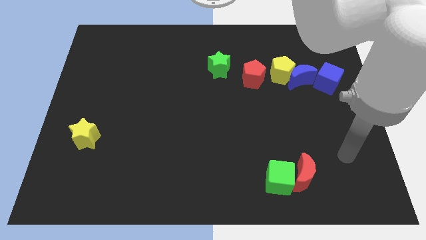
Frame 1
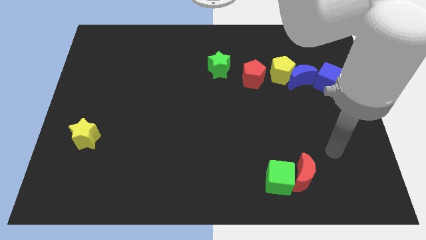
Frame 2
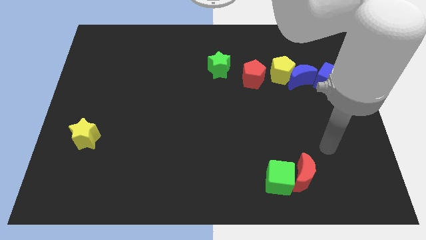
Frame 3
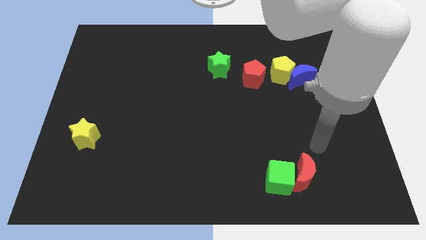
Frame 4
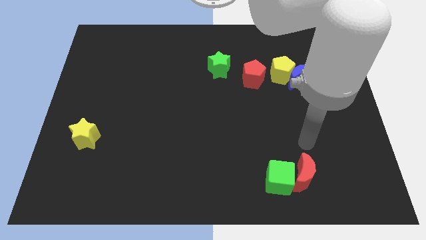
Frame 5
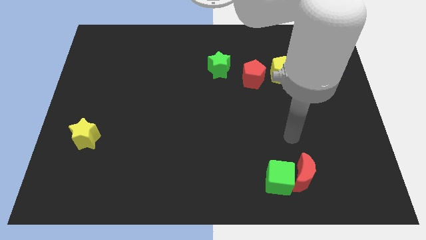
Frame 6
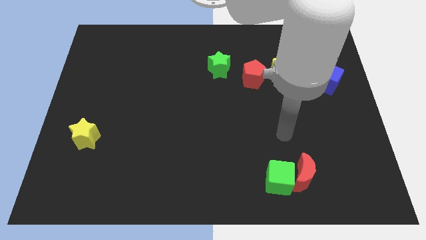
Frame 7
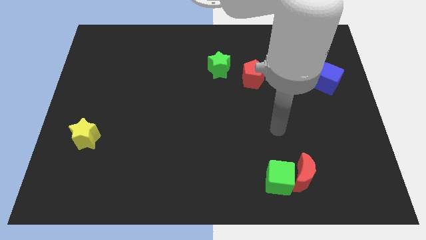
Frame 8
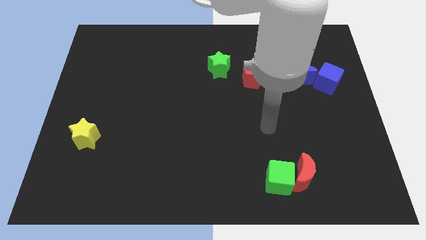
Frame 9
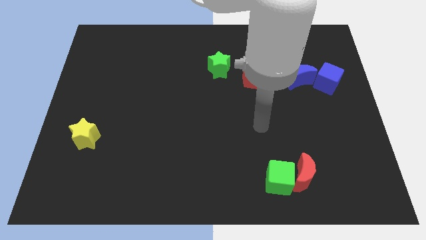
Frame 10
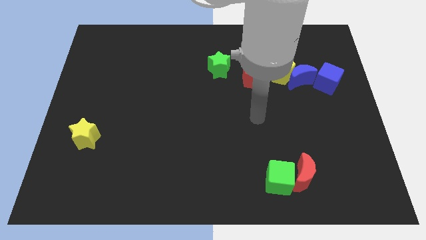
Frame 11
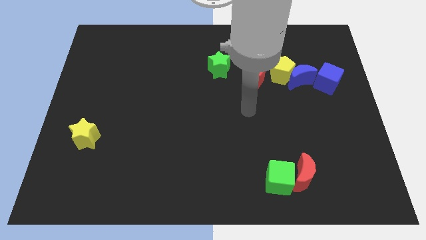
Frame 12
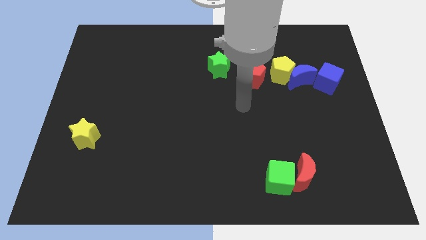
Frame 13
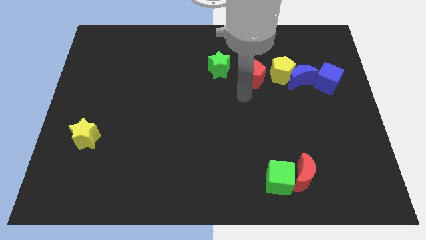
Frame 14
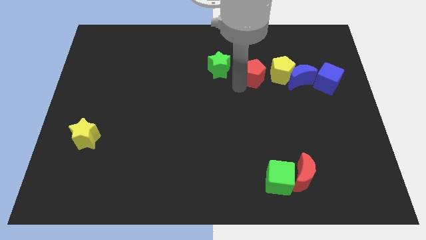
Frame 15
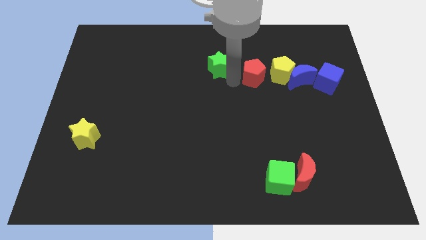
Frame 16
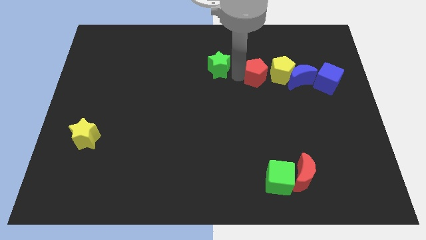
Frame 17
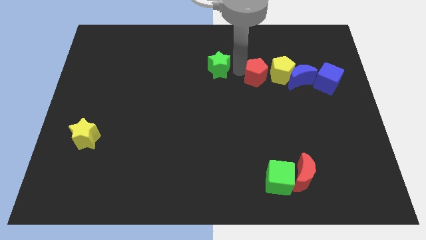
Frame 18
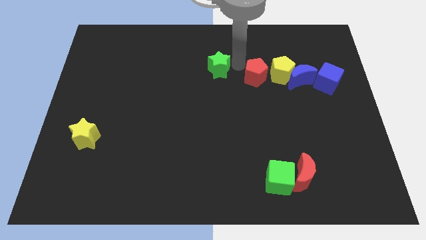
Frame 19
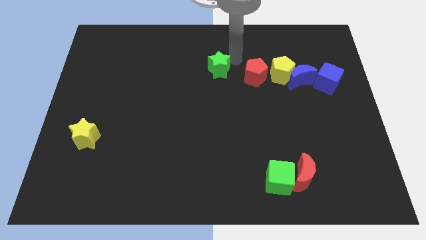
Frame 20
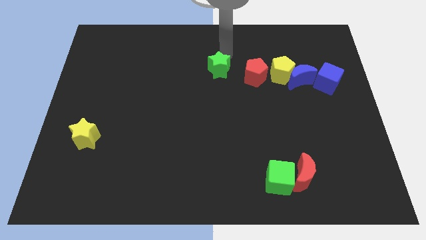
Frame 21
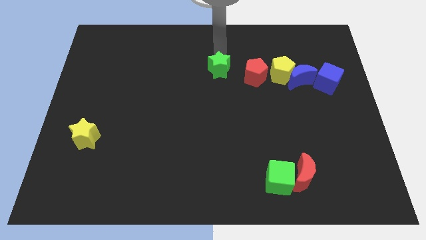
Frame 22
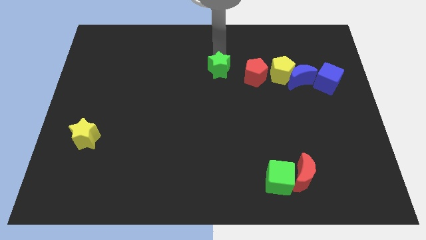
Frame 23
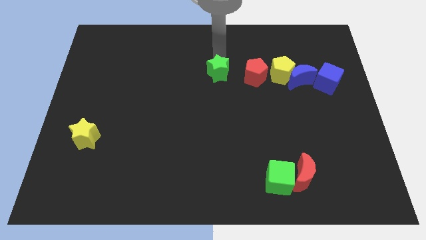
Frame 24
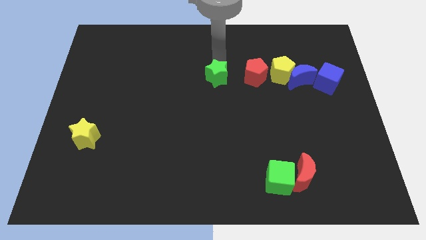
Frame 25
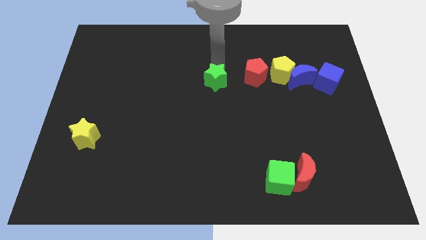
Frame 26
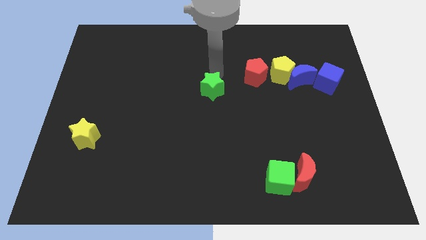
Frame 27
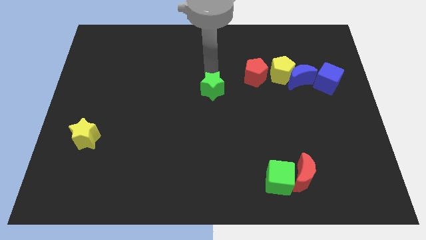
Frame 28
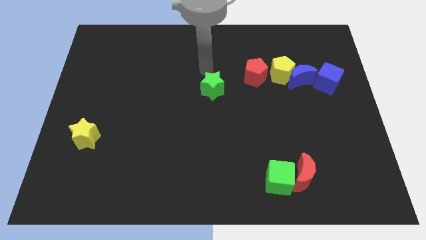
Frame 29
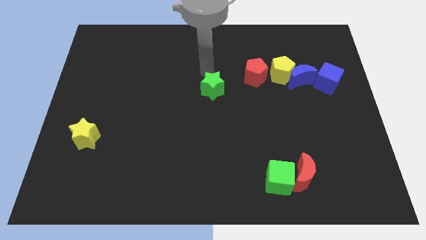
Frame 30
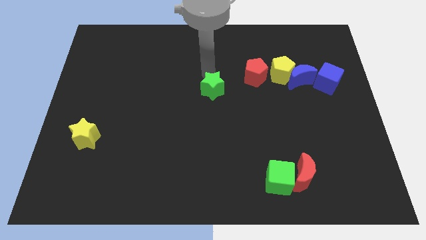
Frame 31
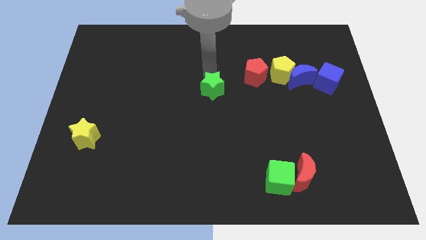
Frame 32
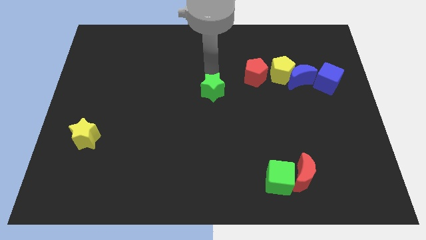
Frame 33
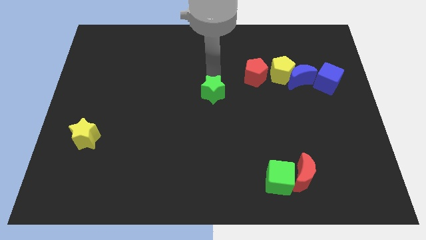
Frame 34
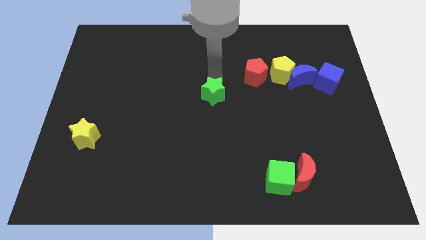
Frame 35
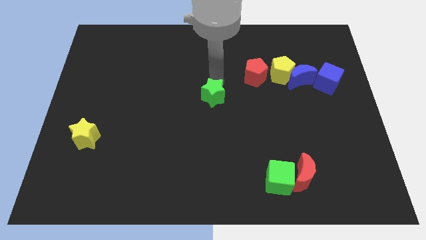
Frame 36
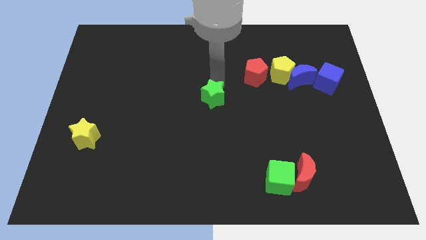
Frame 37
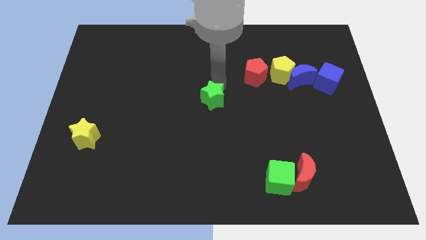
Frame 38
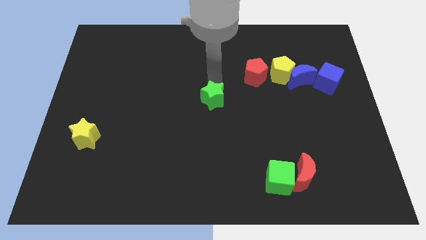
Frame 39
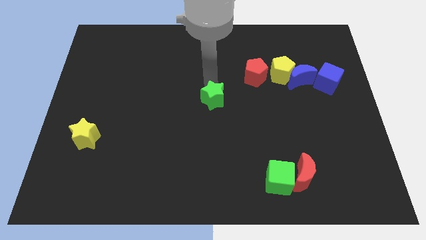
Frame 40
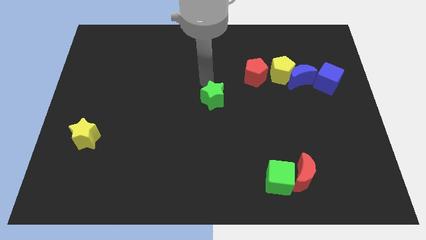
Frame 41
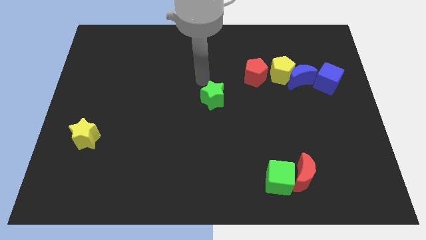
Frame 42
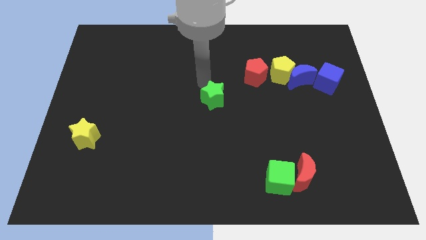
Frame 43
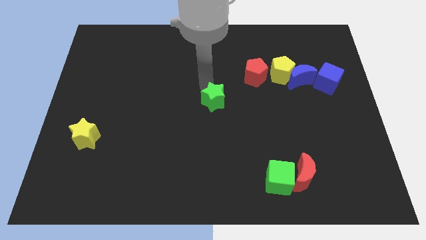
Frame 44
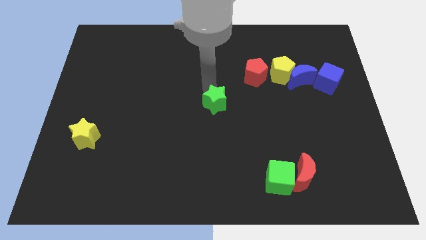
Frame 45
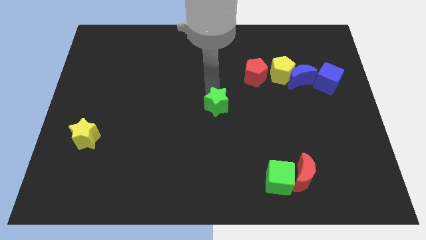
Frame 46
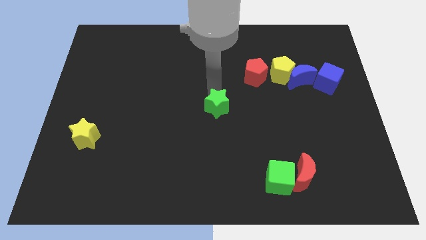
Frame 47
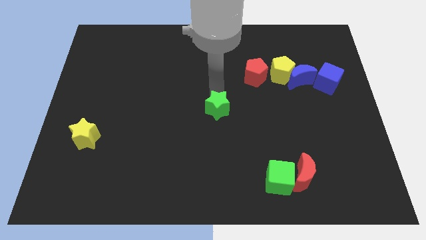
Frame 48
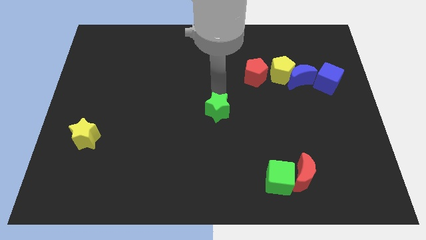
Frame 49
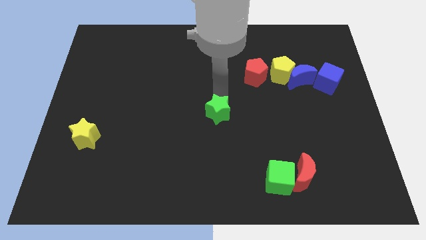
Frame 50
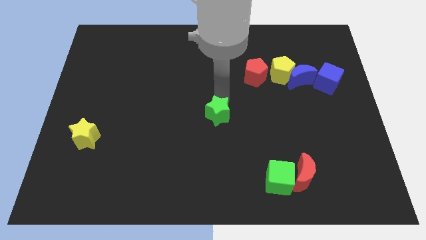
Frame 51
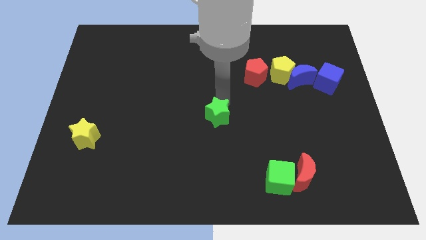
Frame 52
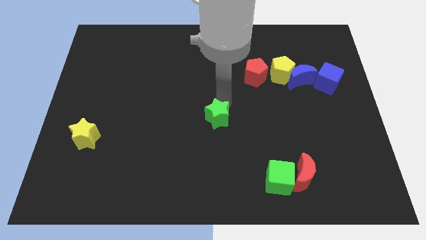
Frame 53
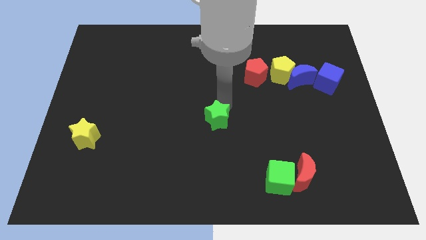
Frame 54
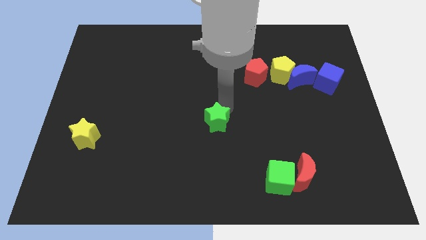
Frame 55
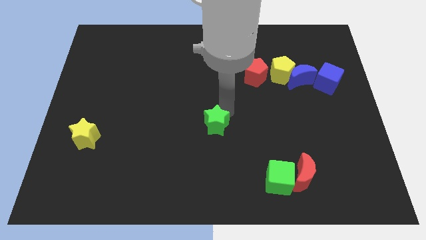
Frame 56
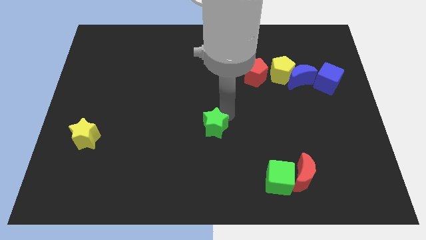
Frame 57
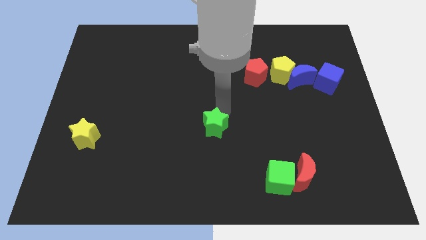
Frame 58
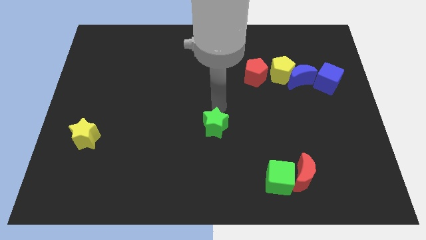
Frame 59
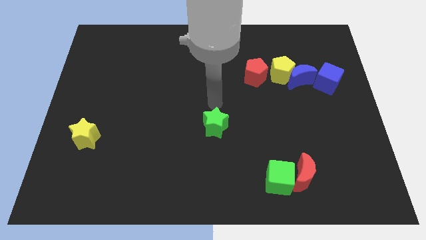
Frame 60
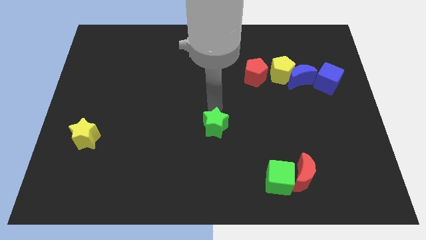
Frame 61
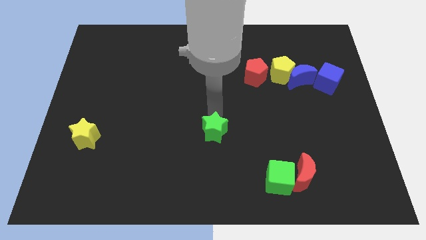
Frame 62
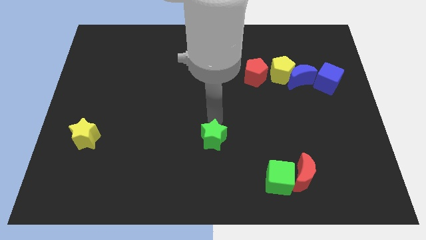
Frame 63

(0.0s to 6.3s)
push the green star down

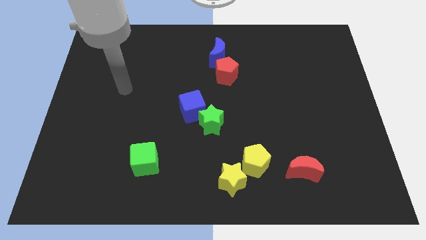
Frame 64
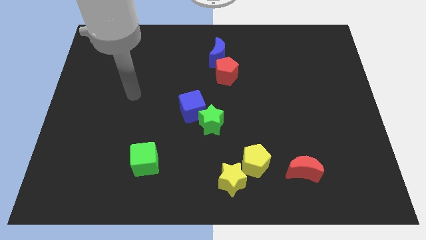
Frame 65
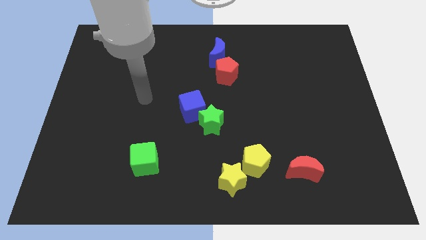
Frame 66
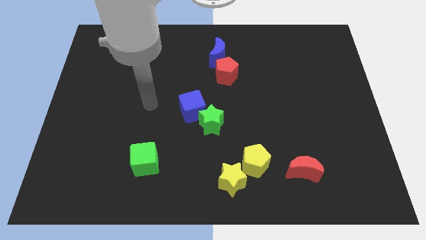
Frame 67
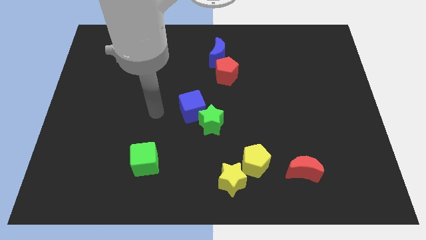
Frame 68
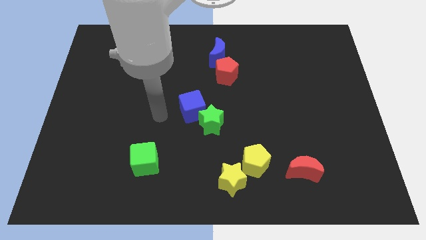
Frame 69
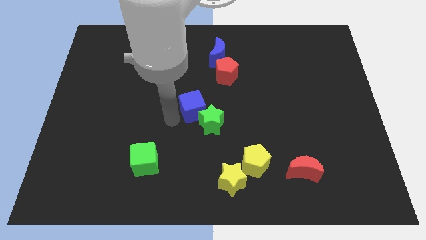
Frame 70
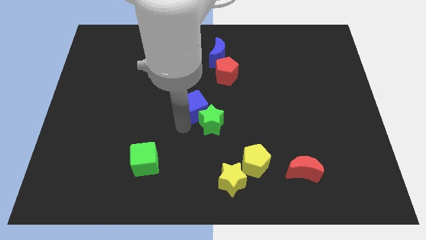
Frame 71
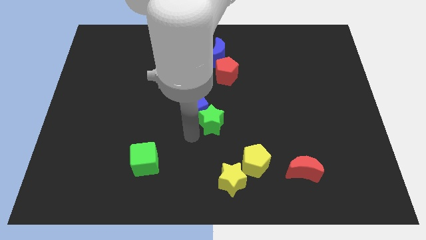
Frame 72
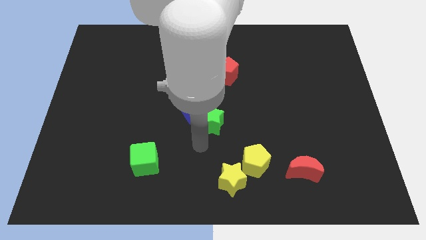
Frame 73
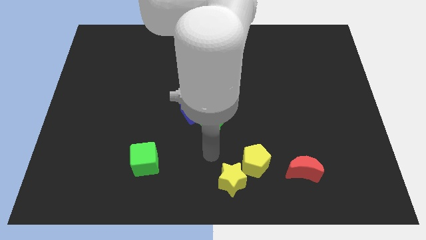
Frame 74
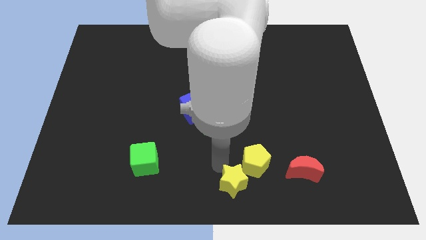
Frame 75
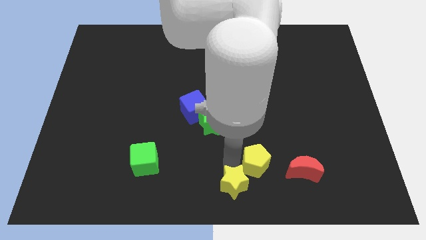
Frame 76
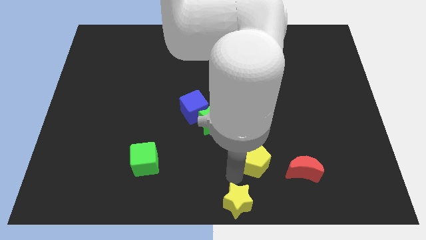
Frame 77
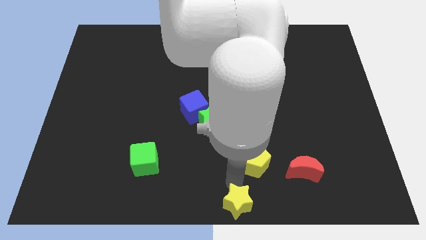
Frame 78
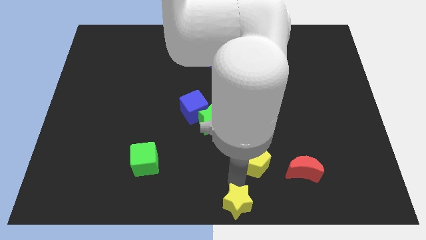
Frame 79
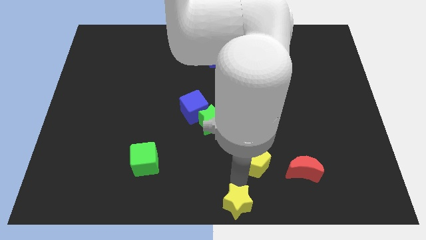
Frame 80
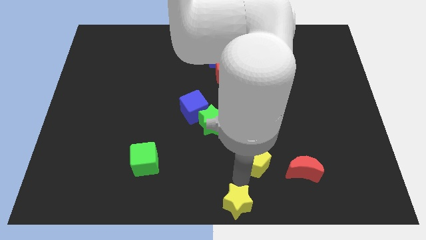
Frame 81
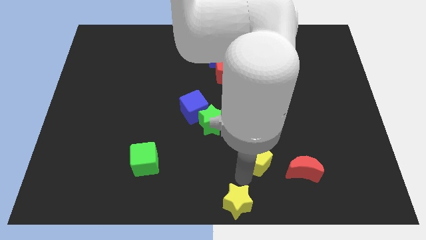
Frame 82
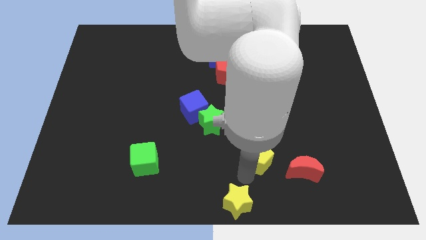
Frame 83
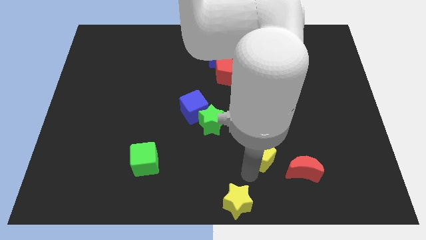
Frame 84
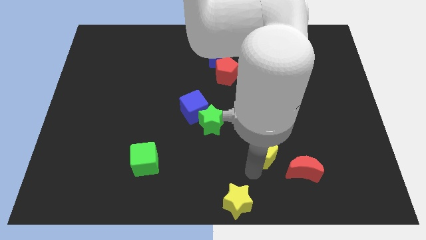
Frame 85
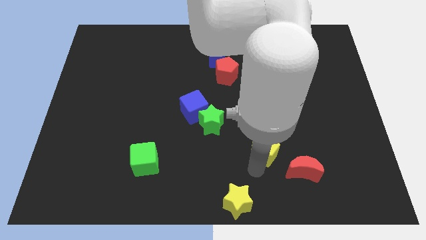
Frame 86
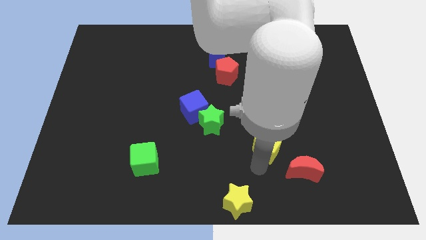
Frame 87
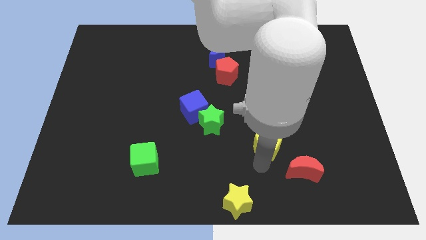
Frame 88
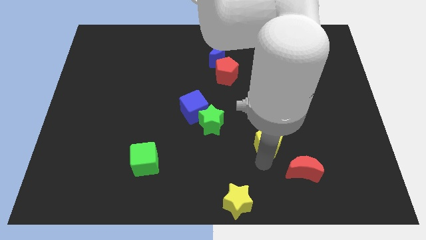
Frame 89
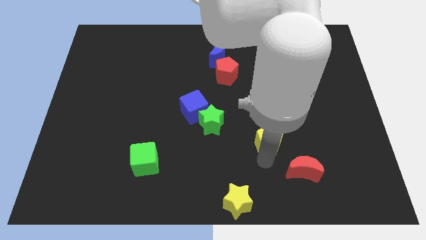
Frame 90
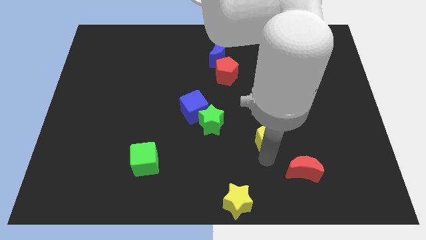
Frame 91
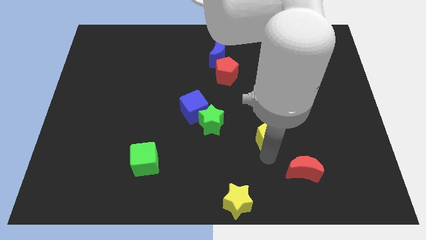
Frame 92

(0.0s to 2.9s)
move the yellow pentagon up and to the right somewhat
